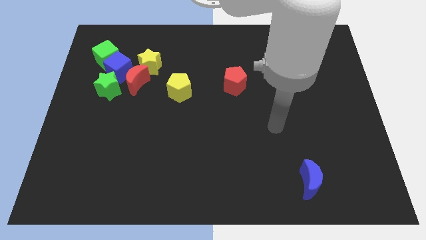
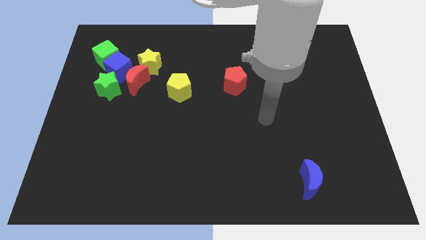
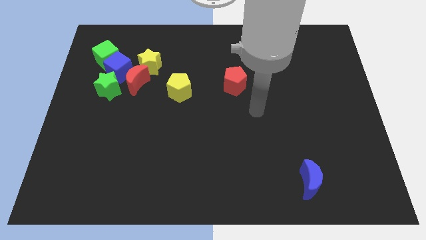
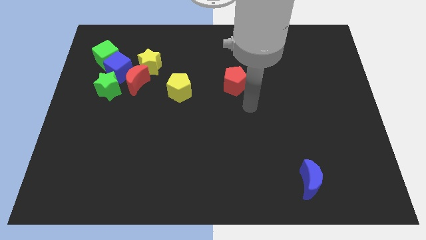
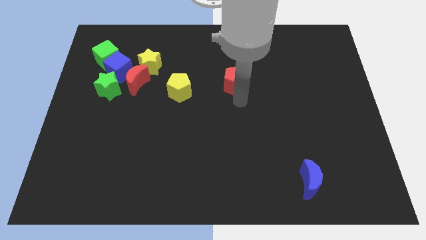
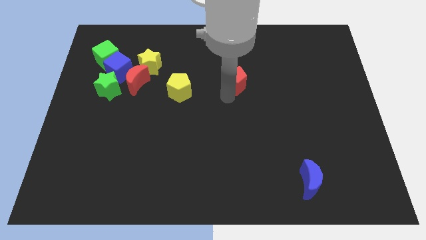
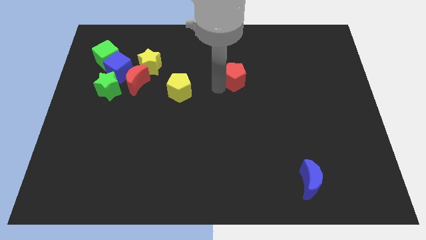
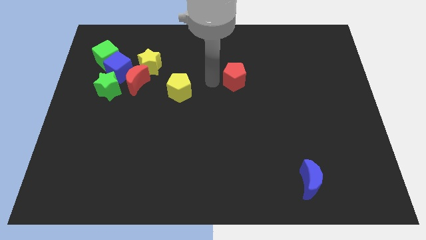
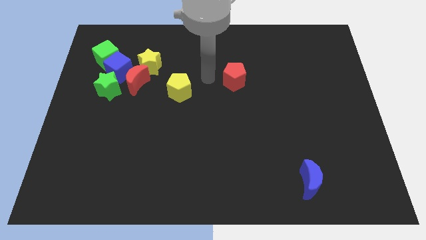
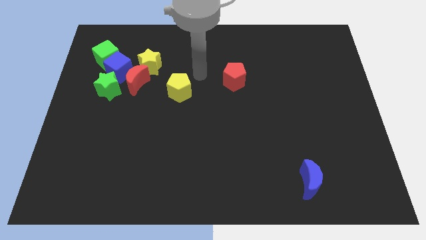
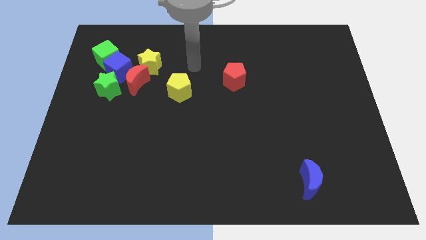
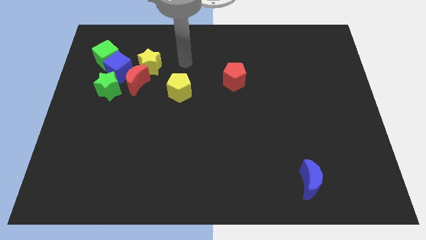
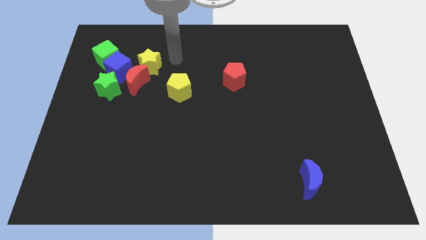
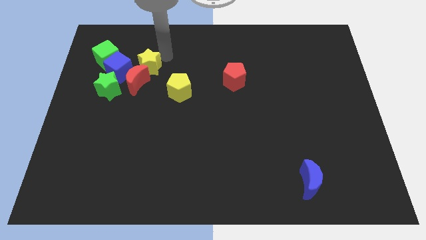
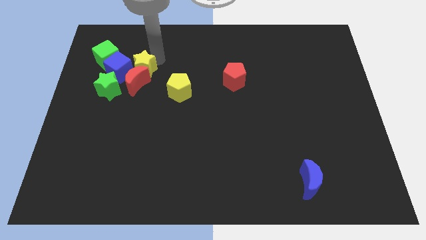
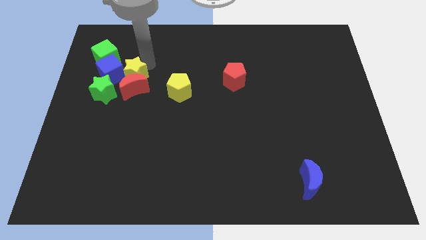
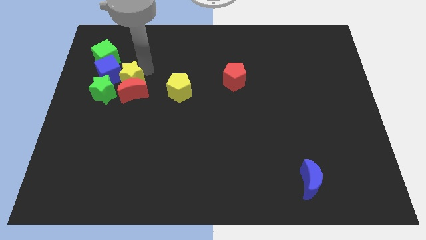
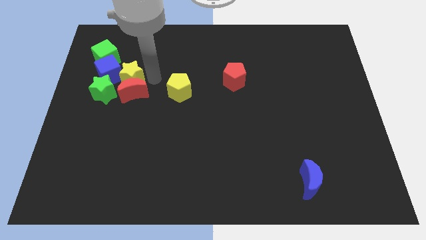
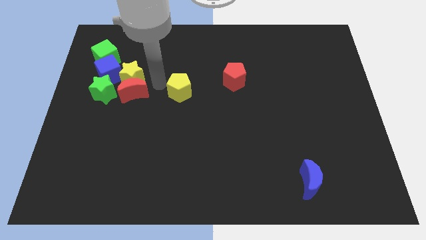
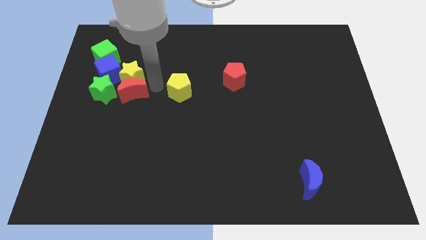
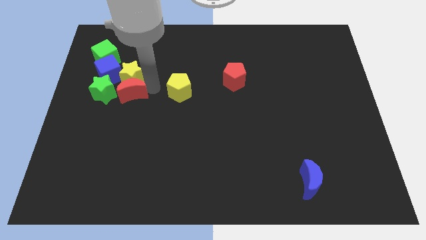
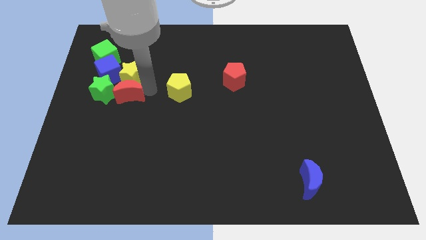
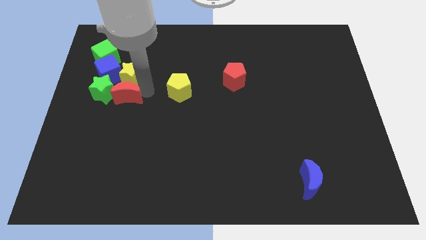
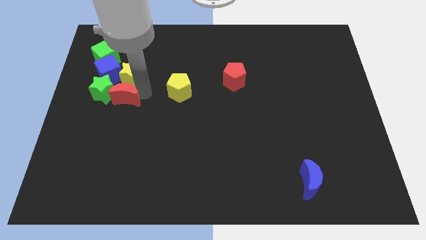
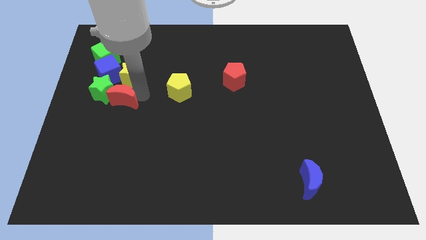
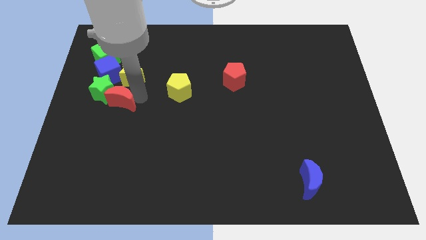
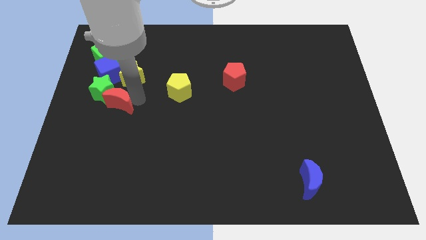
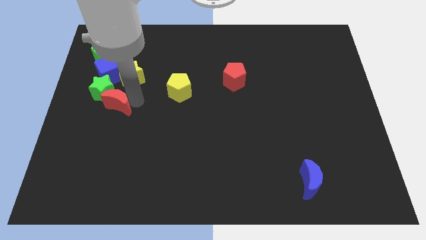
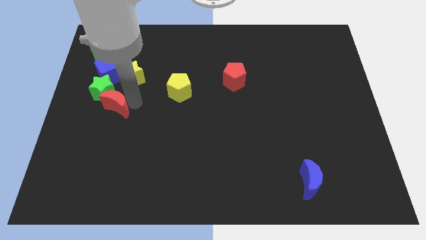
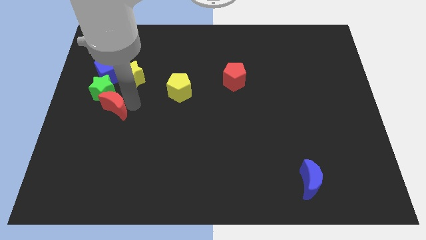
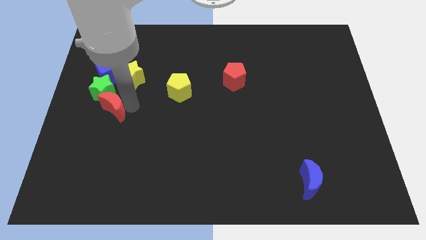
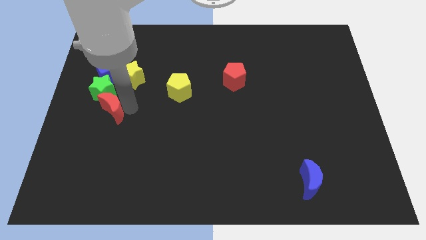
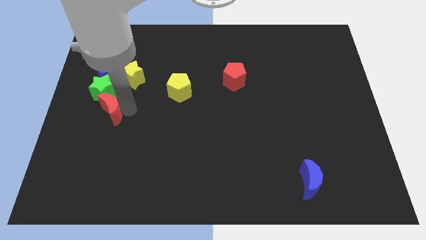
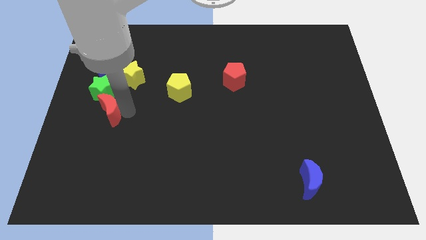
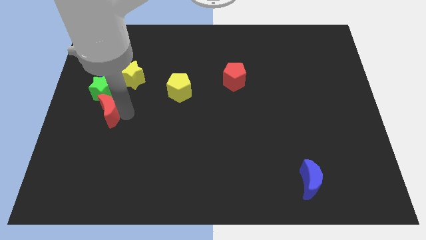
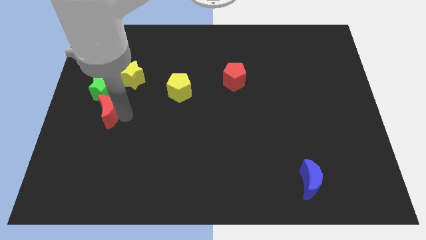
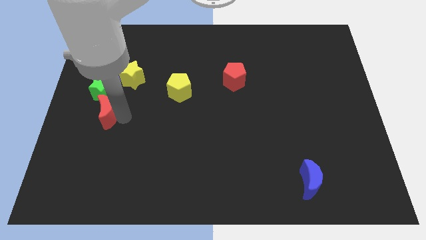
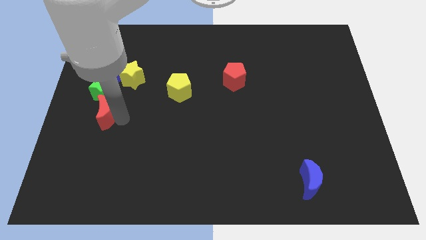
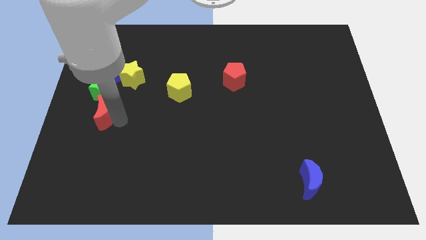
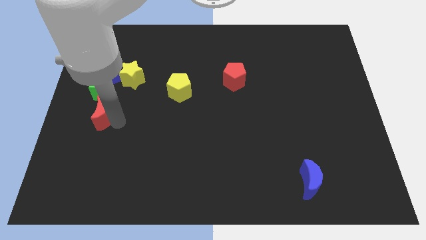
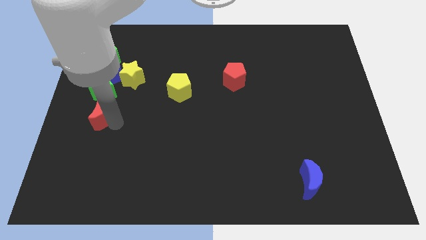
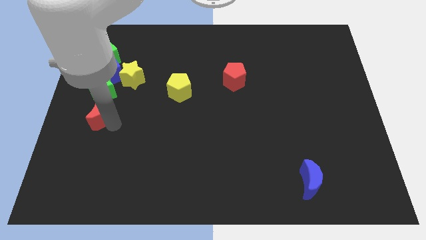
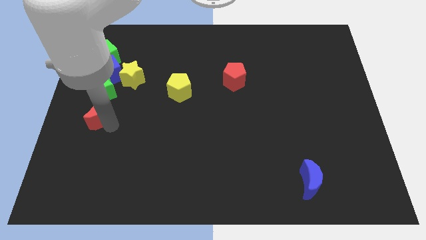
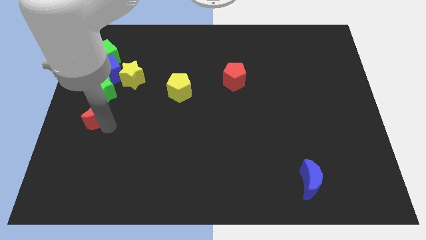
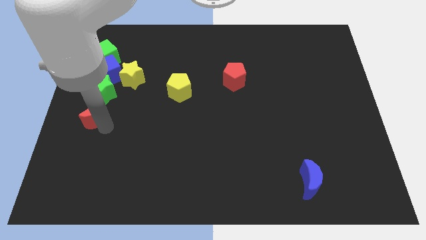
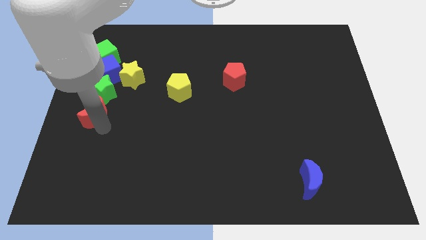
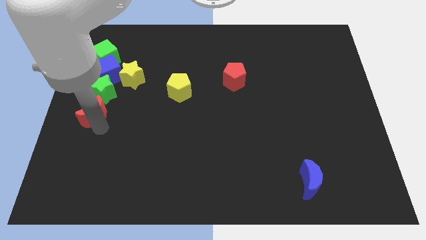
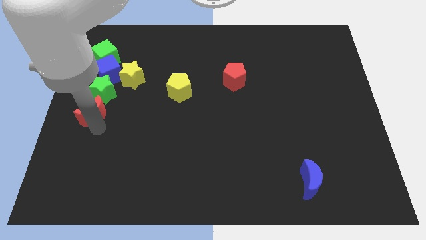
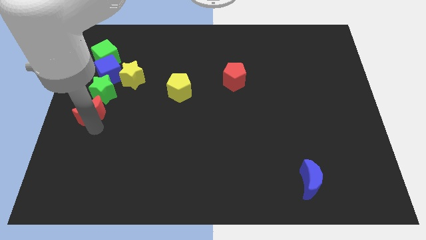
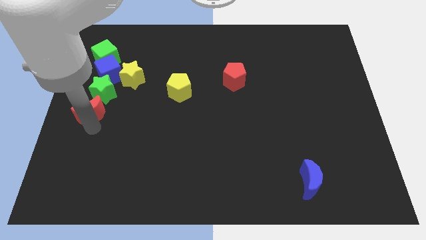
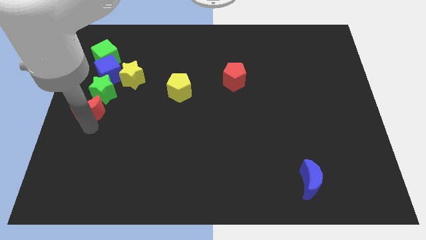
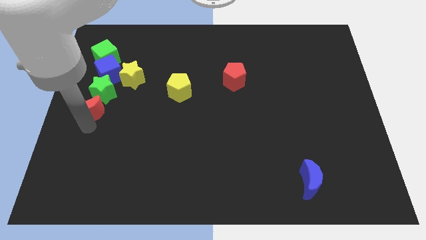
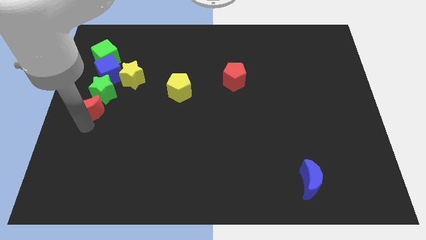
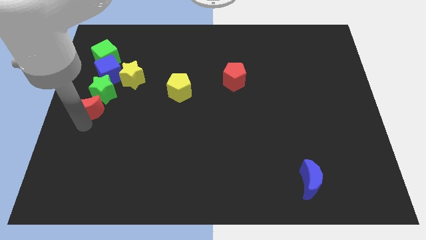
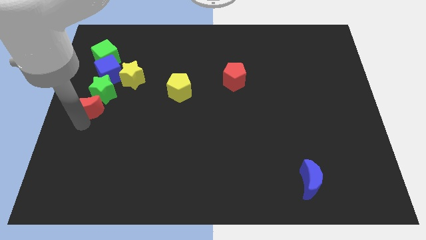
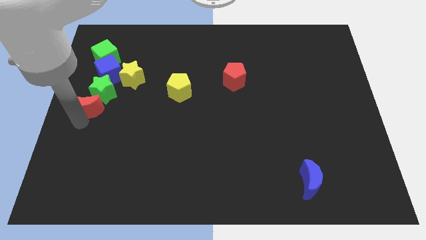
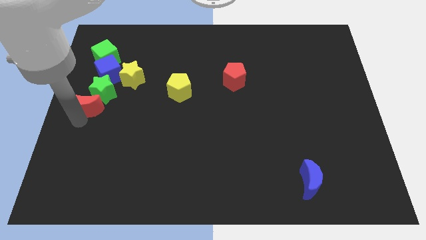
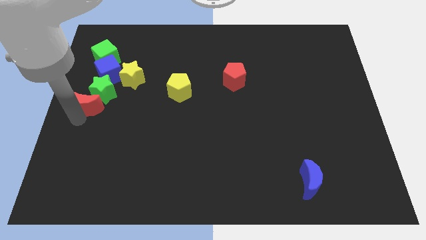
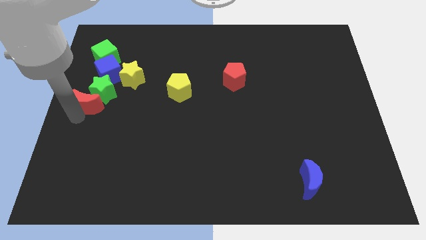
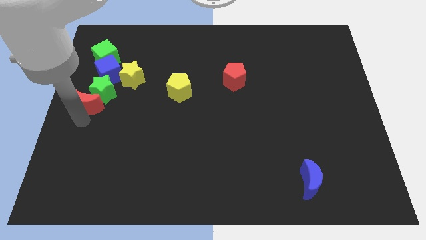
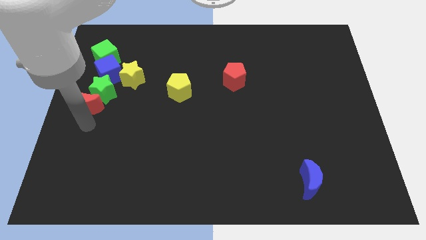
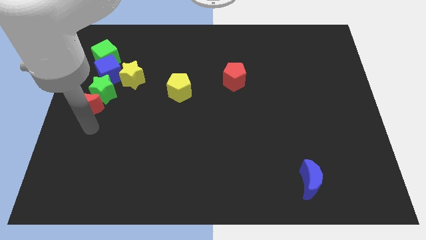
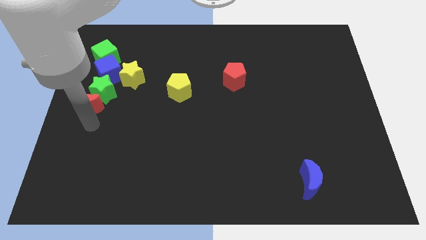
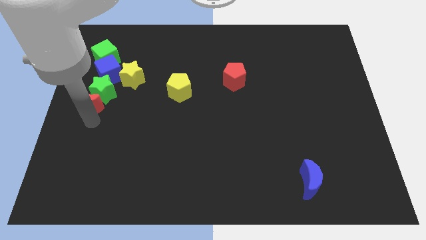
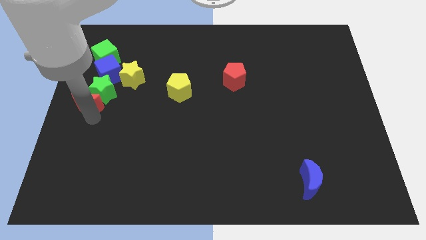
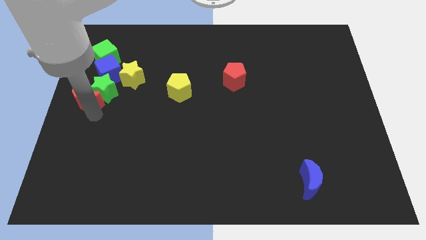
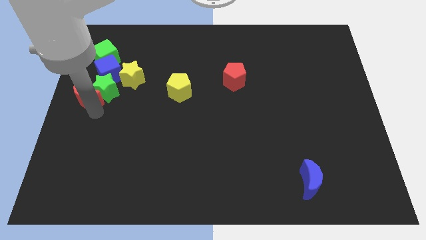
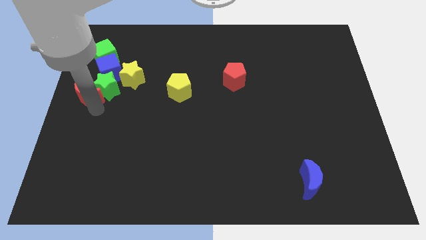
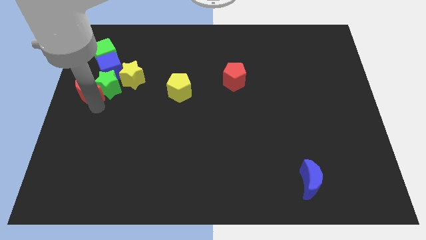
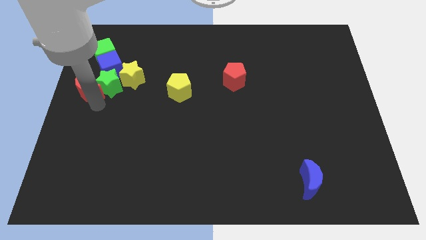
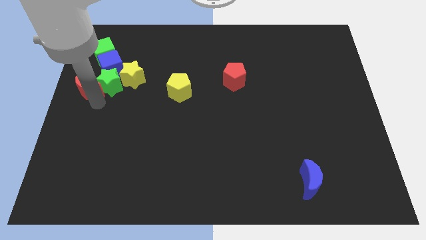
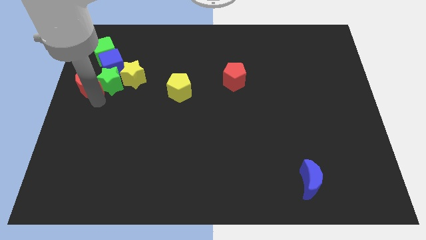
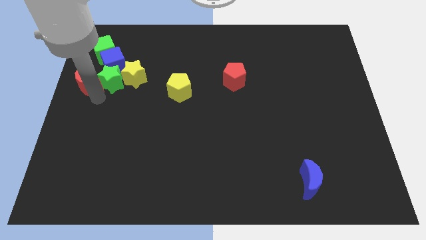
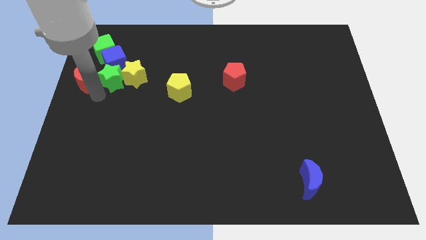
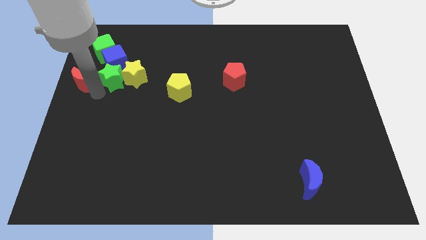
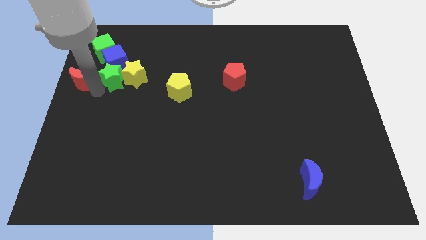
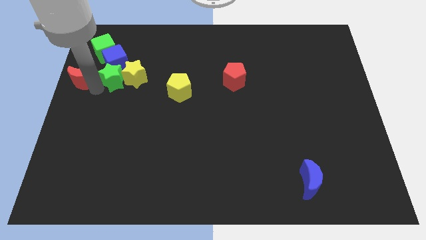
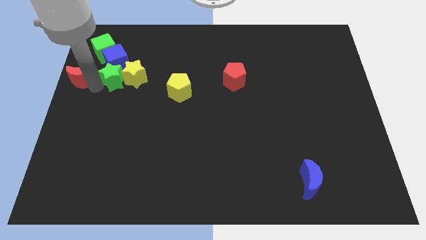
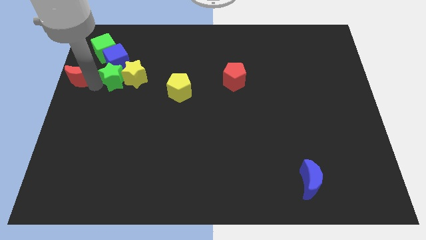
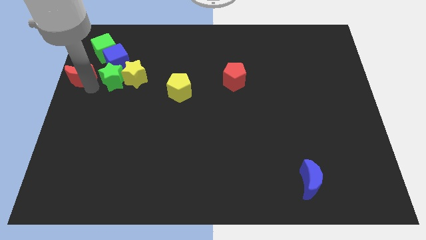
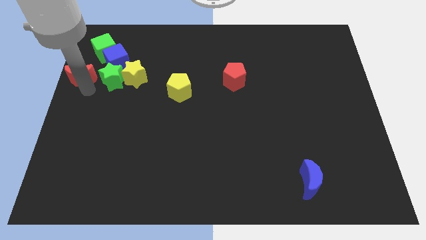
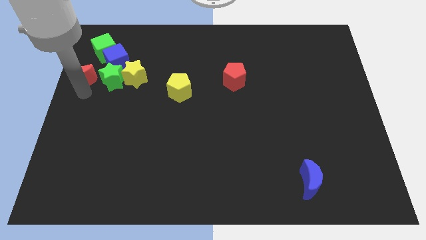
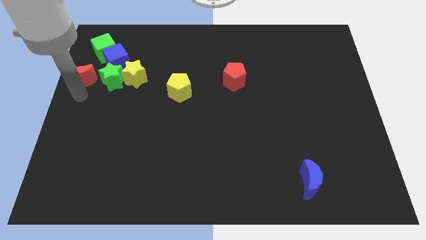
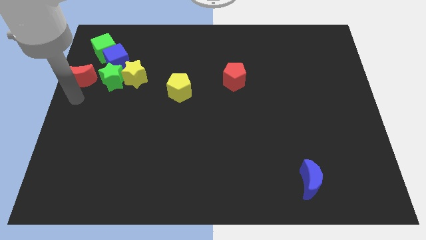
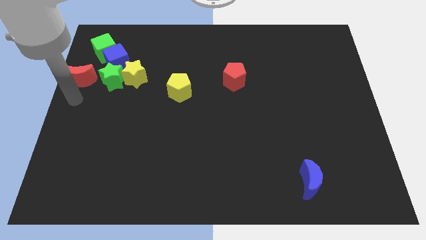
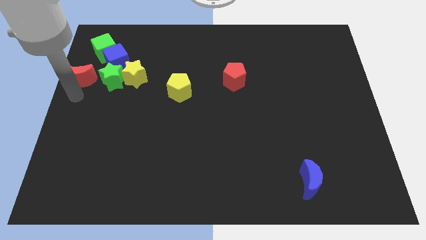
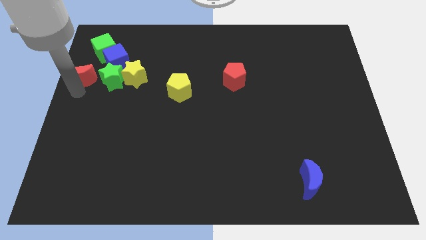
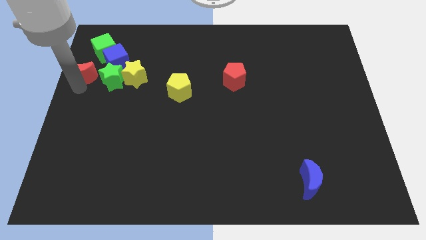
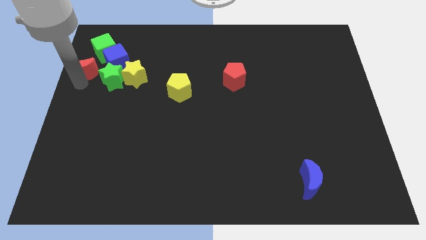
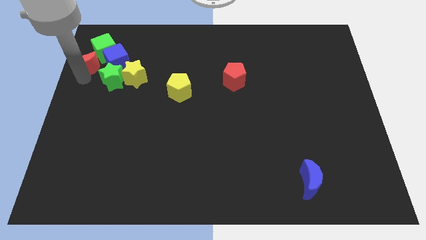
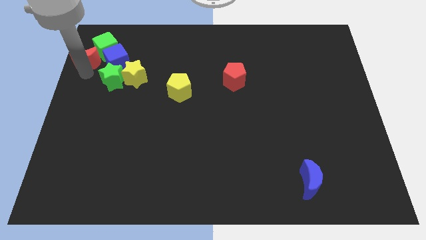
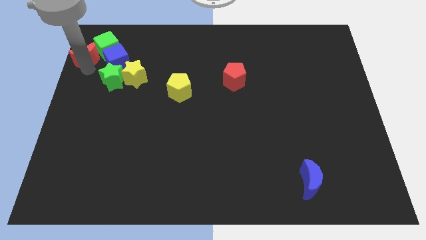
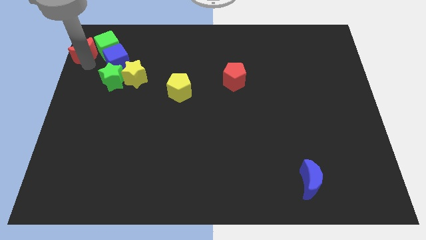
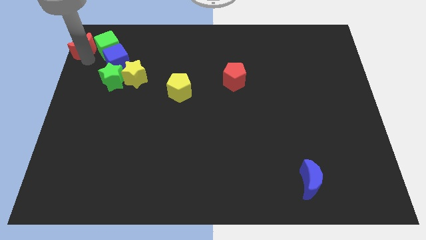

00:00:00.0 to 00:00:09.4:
move the red moon to the top left of the board
